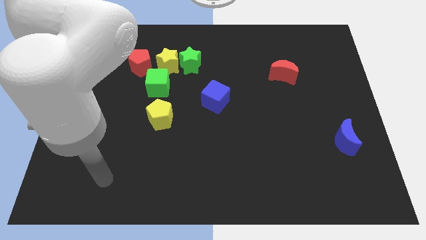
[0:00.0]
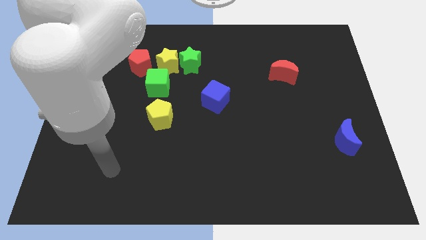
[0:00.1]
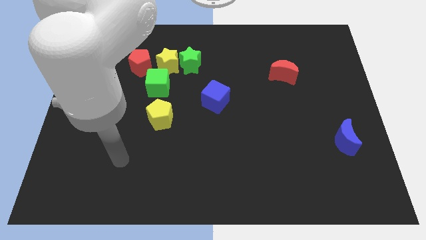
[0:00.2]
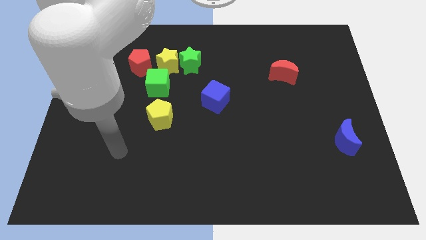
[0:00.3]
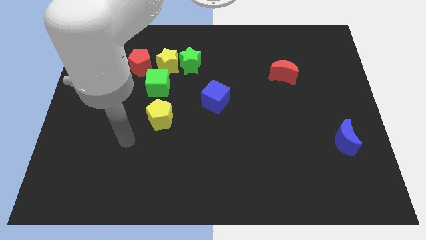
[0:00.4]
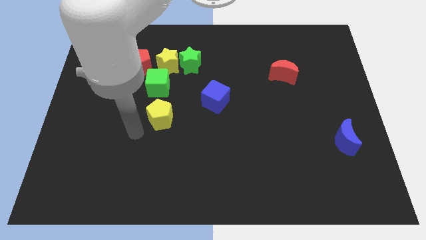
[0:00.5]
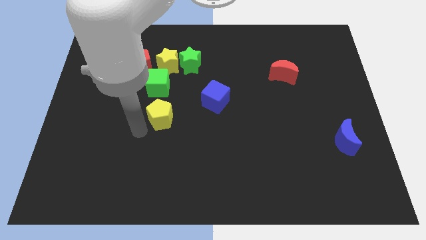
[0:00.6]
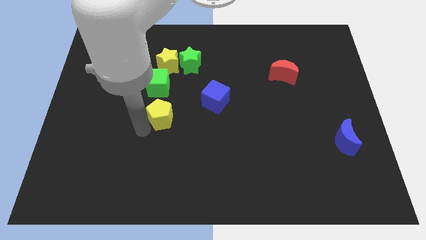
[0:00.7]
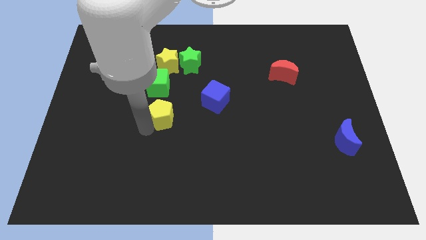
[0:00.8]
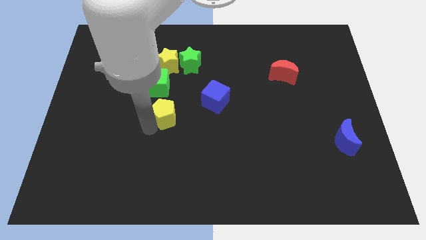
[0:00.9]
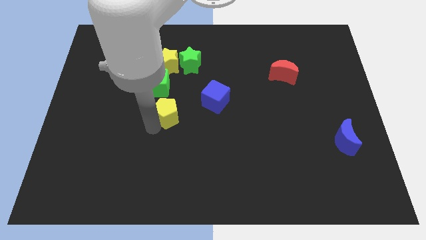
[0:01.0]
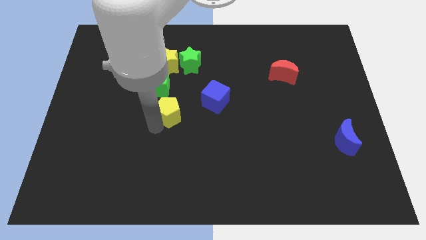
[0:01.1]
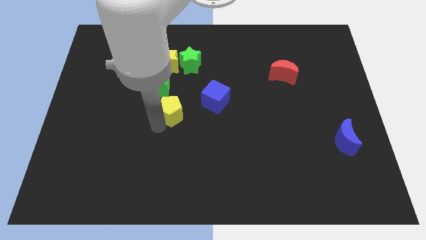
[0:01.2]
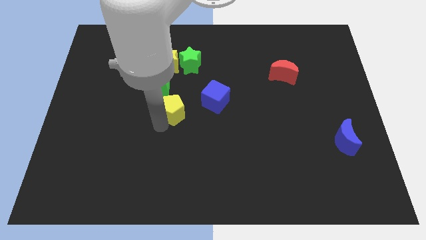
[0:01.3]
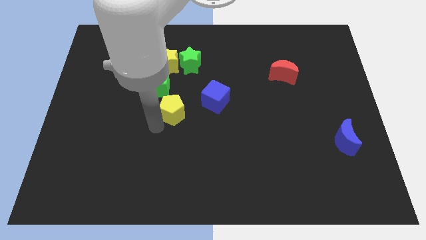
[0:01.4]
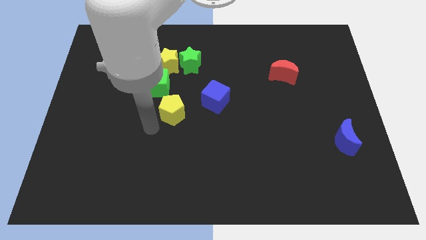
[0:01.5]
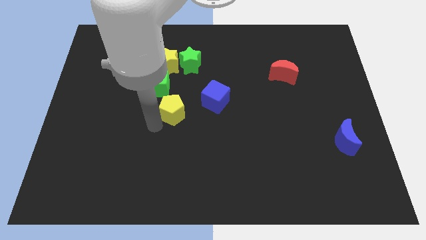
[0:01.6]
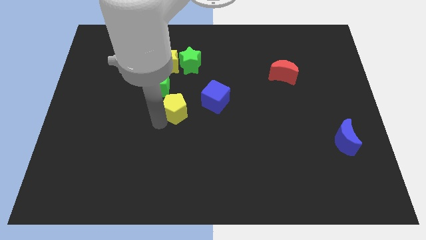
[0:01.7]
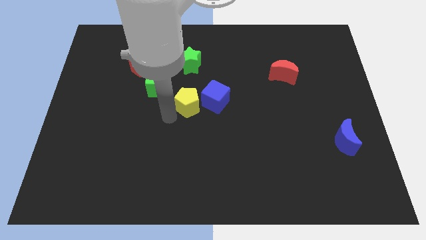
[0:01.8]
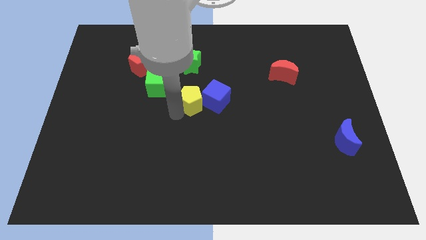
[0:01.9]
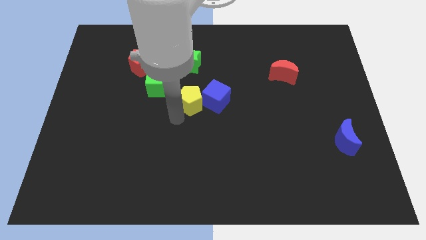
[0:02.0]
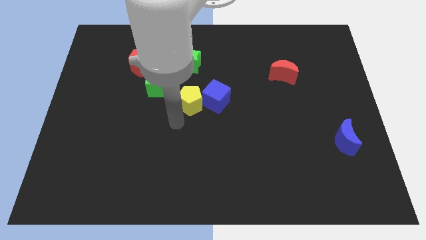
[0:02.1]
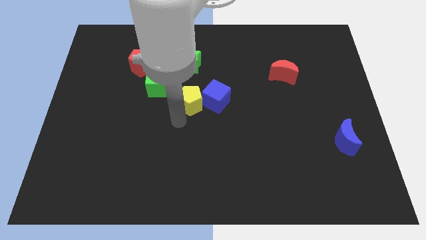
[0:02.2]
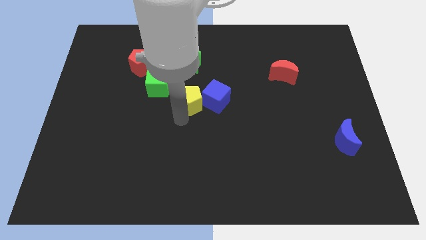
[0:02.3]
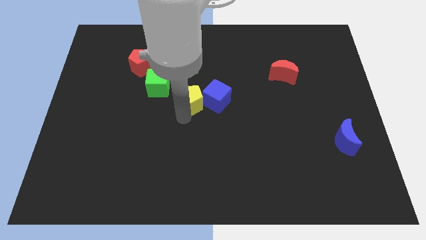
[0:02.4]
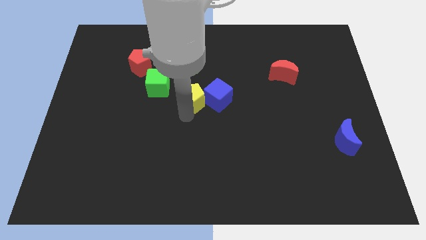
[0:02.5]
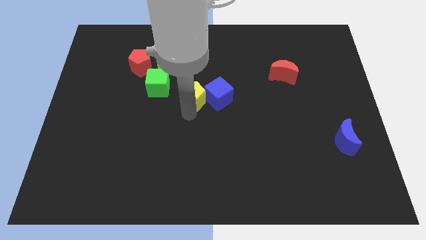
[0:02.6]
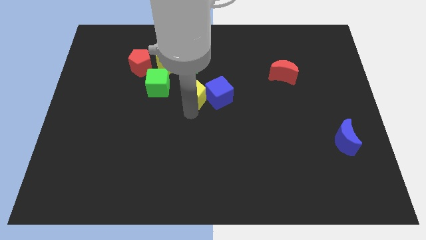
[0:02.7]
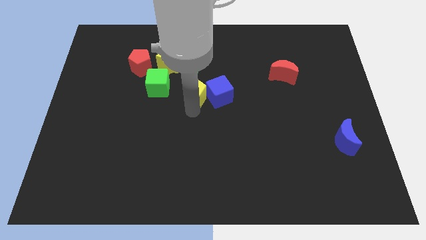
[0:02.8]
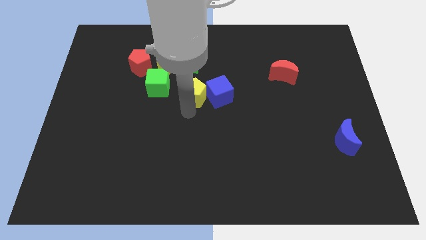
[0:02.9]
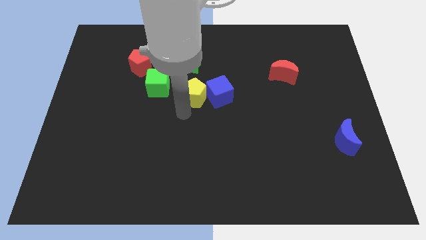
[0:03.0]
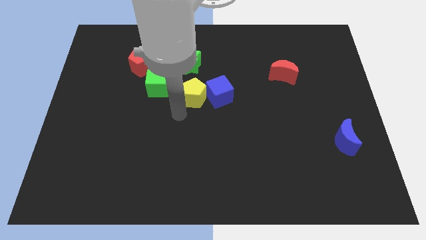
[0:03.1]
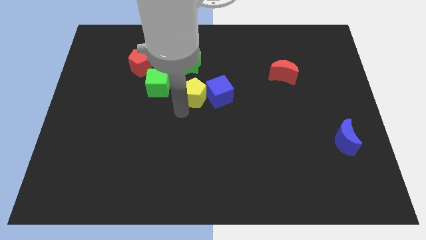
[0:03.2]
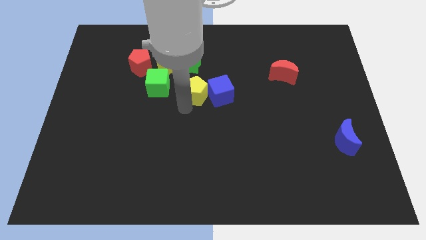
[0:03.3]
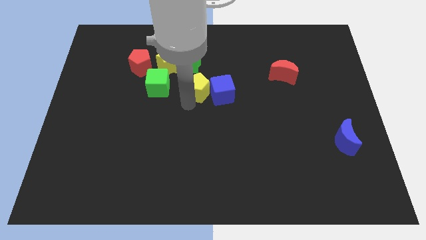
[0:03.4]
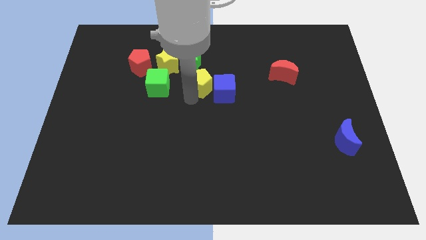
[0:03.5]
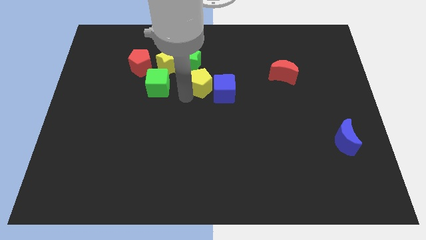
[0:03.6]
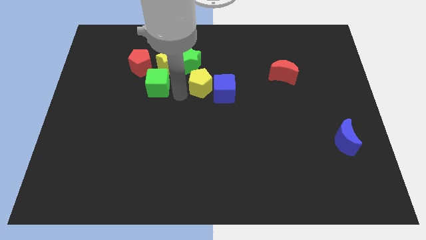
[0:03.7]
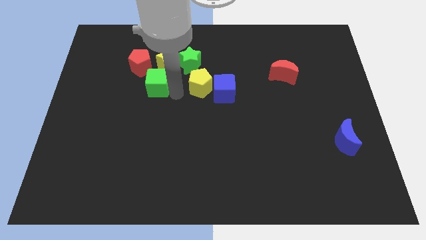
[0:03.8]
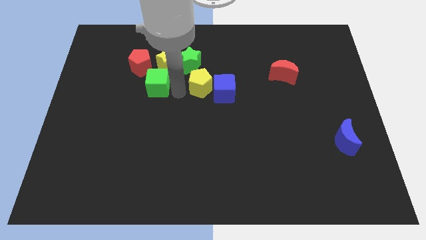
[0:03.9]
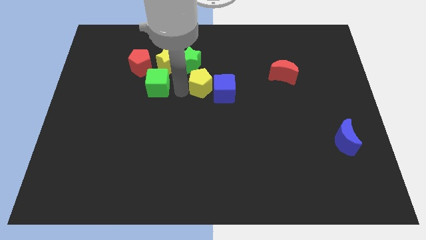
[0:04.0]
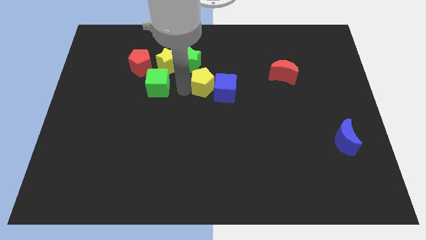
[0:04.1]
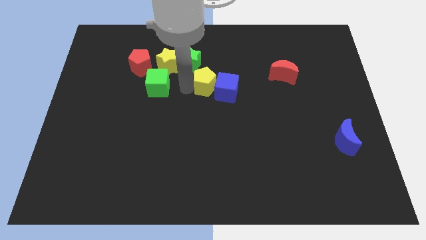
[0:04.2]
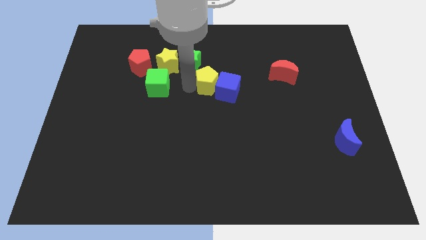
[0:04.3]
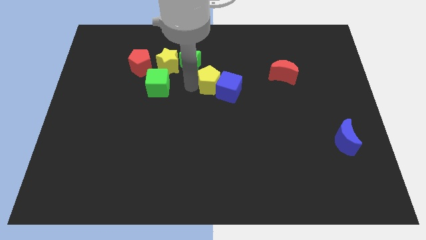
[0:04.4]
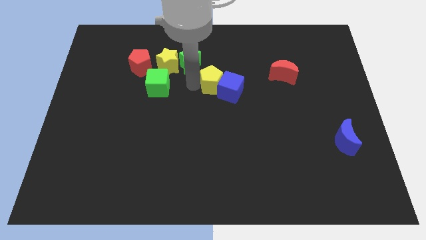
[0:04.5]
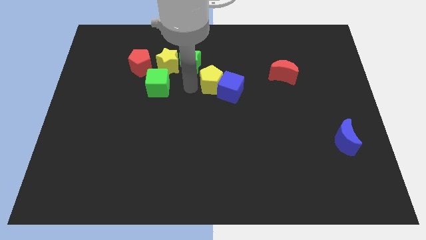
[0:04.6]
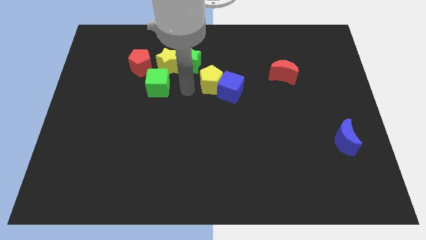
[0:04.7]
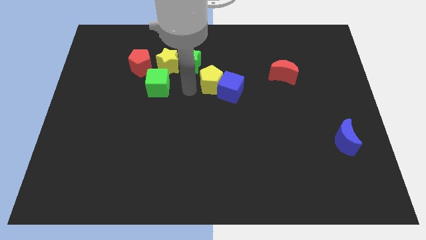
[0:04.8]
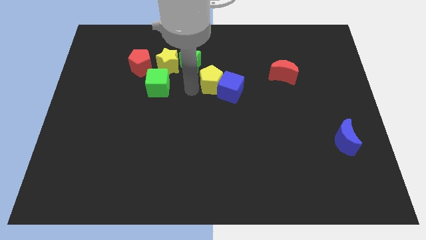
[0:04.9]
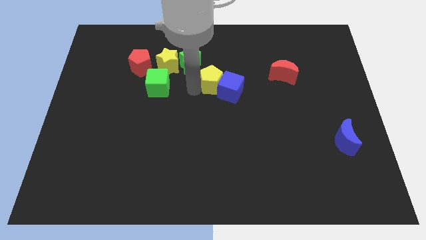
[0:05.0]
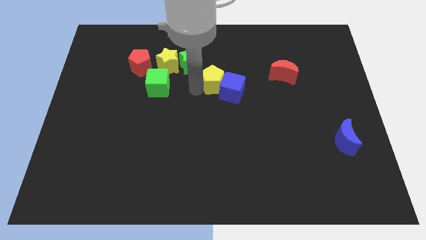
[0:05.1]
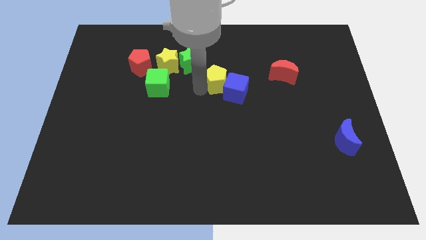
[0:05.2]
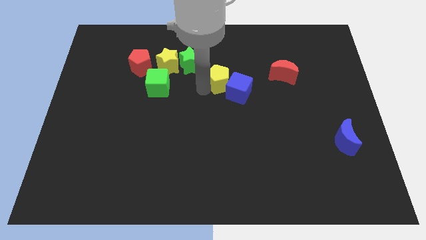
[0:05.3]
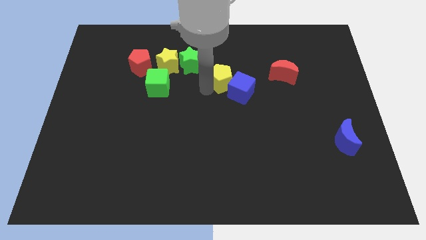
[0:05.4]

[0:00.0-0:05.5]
slide the yellow pentagon left of the red moon

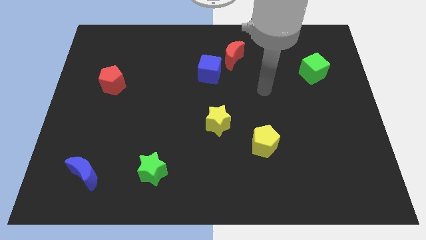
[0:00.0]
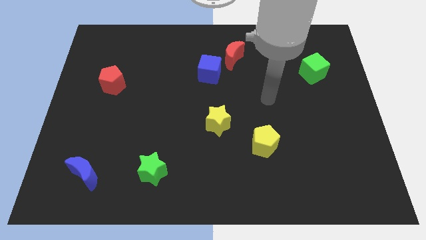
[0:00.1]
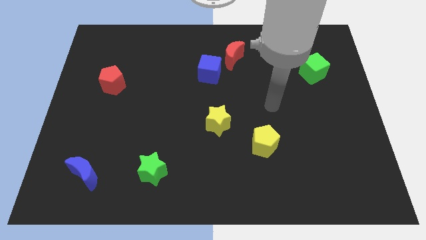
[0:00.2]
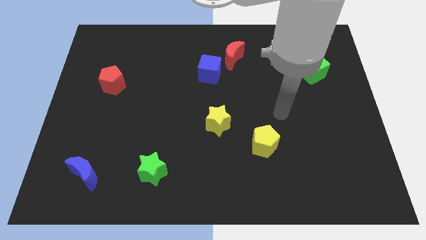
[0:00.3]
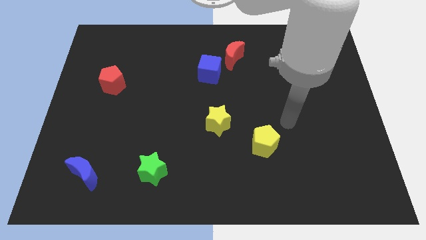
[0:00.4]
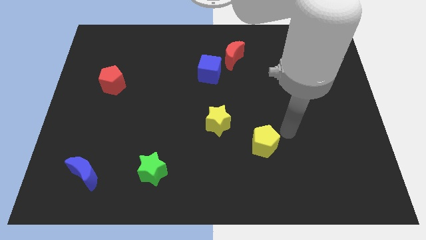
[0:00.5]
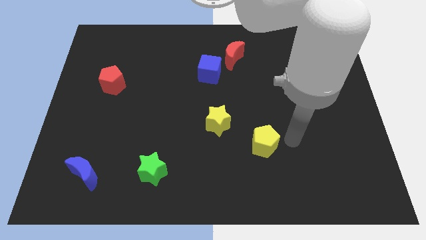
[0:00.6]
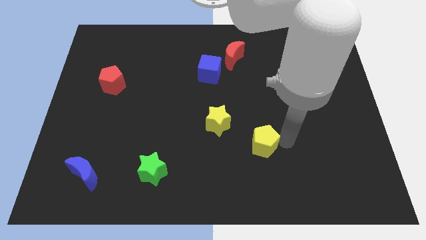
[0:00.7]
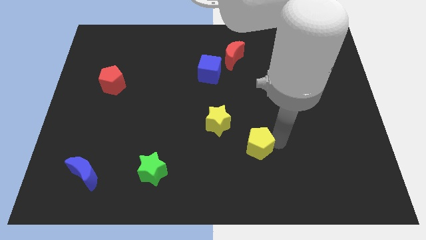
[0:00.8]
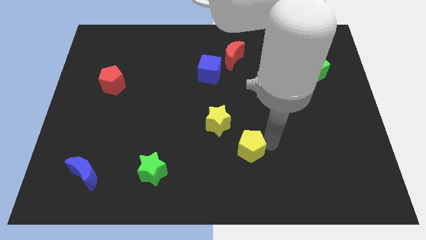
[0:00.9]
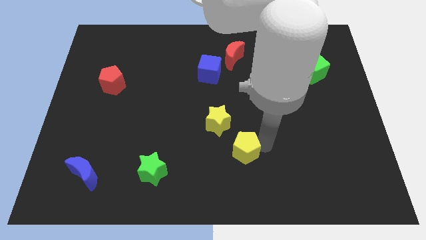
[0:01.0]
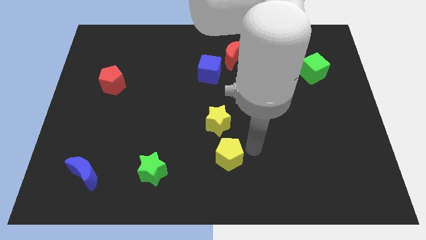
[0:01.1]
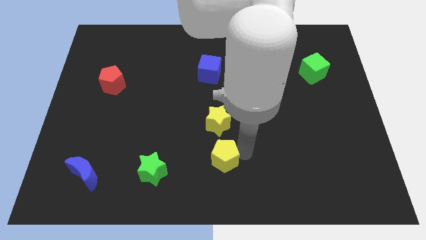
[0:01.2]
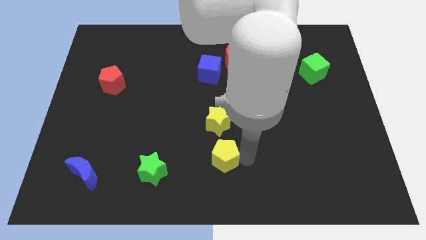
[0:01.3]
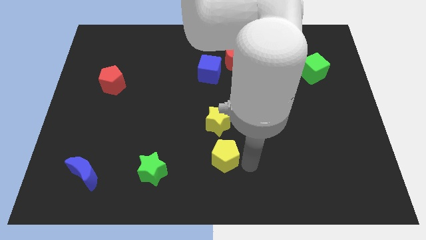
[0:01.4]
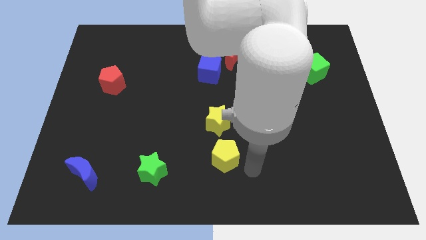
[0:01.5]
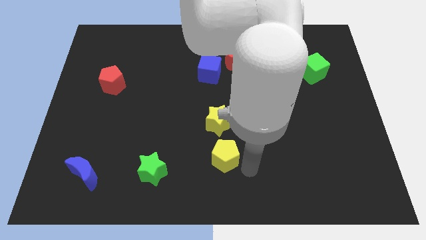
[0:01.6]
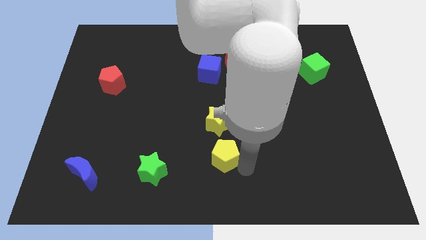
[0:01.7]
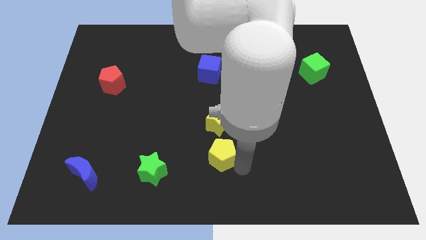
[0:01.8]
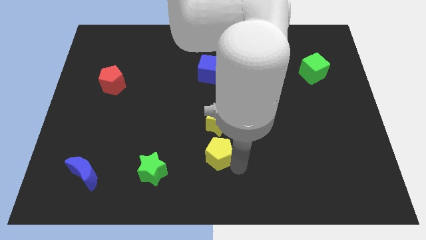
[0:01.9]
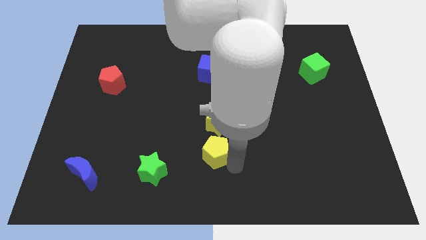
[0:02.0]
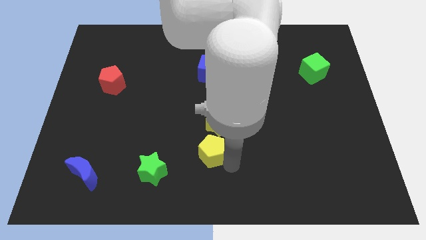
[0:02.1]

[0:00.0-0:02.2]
slide the yellow pentagon diagonally down and to the left of the yellow star
